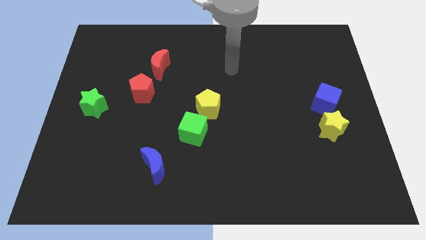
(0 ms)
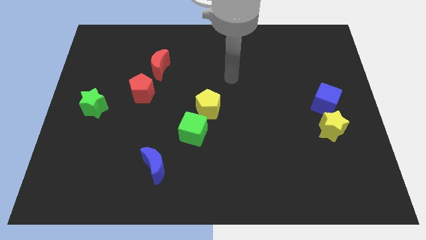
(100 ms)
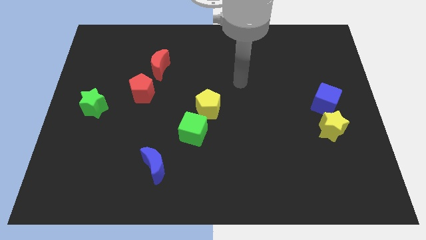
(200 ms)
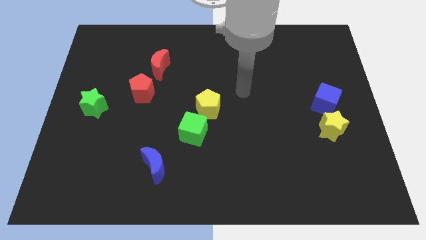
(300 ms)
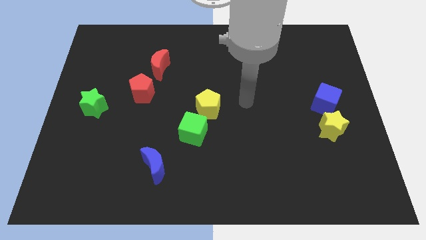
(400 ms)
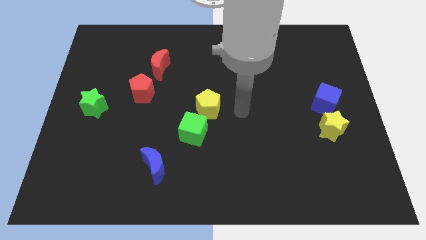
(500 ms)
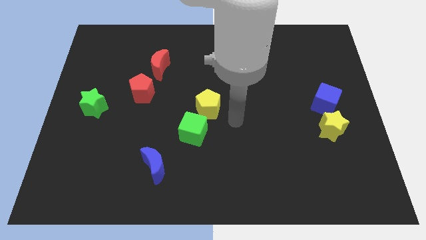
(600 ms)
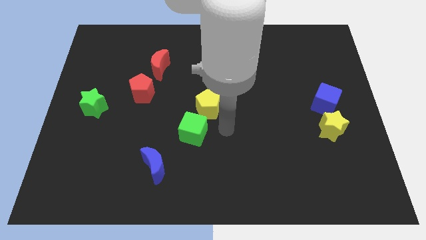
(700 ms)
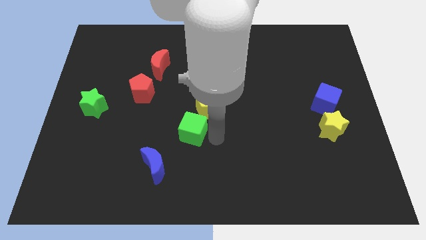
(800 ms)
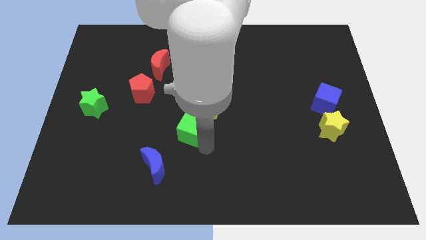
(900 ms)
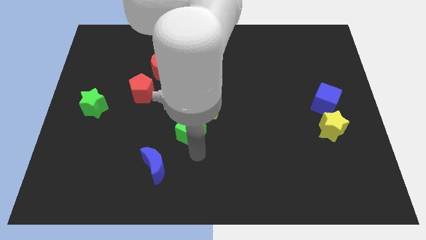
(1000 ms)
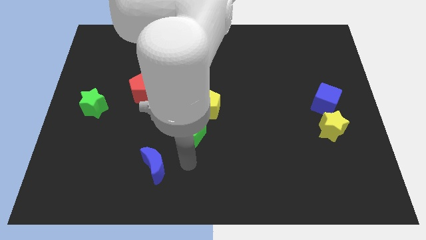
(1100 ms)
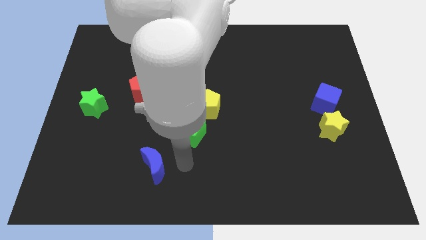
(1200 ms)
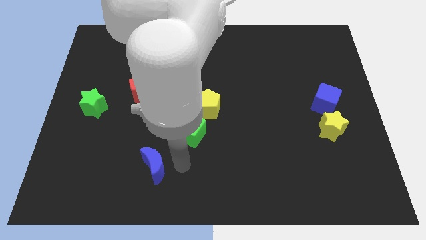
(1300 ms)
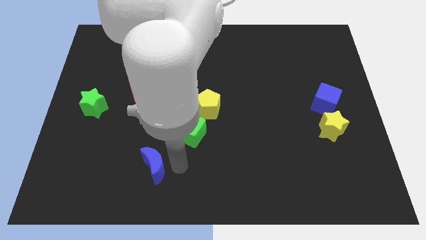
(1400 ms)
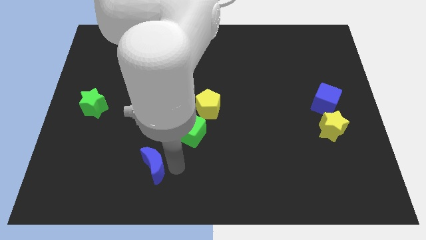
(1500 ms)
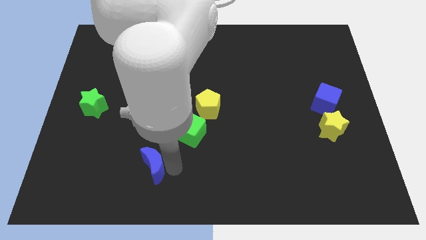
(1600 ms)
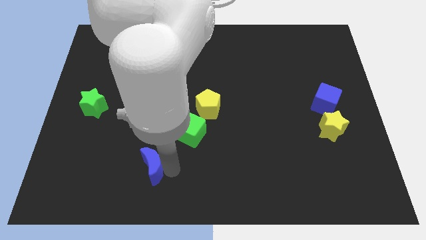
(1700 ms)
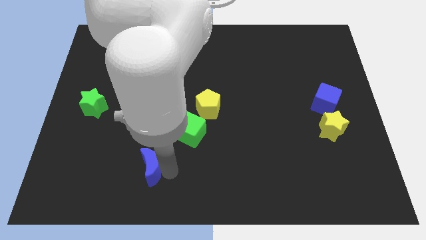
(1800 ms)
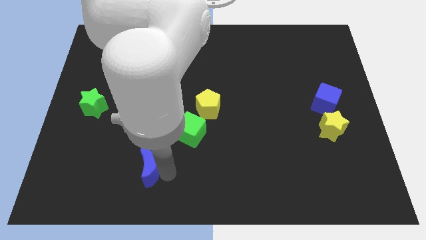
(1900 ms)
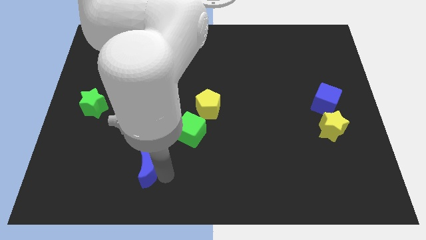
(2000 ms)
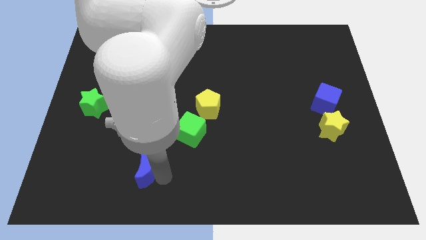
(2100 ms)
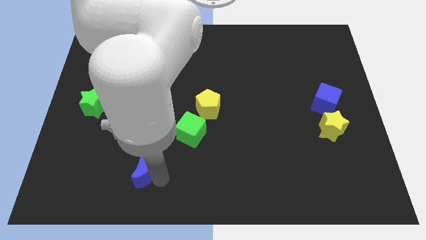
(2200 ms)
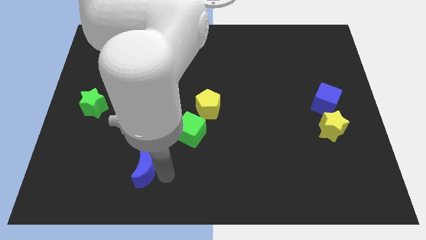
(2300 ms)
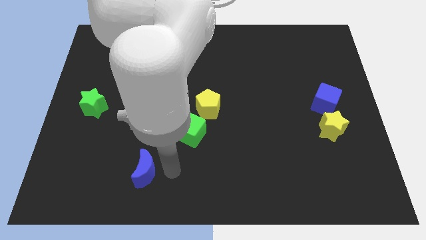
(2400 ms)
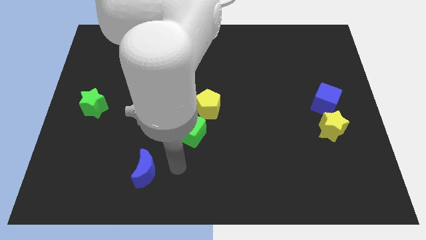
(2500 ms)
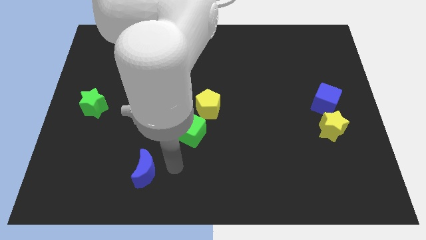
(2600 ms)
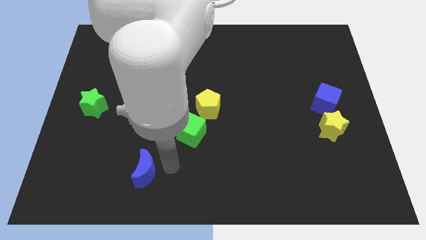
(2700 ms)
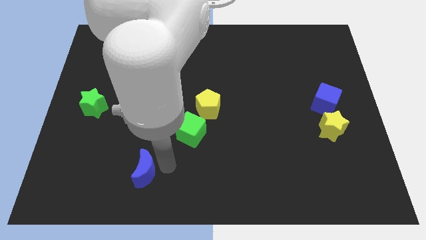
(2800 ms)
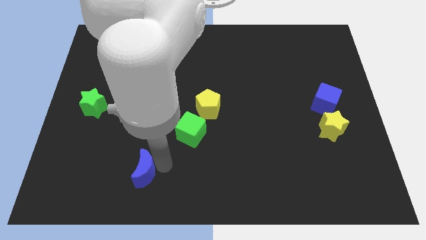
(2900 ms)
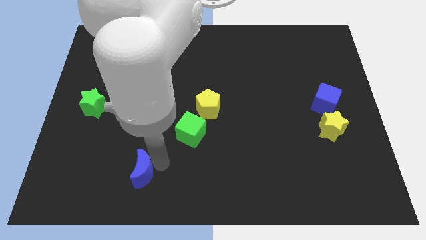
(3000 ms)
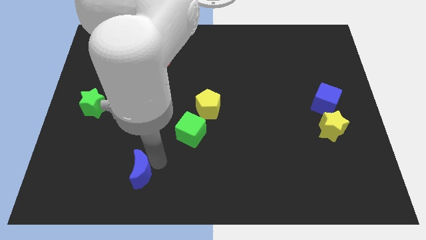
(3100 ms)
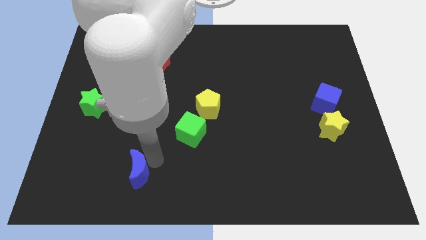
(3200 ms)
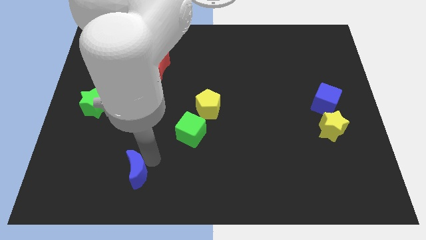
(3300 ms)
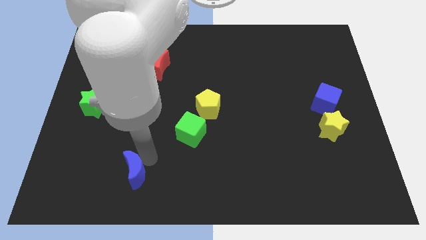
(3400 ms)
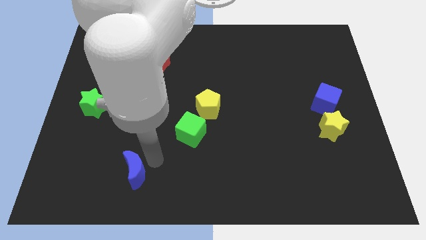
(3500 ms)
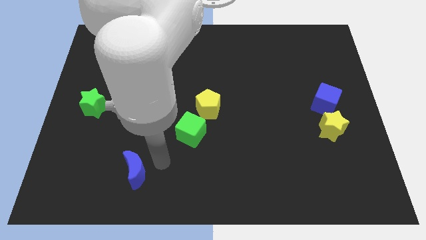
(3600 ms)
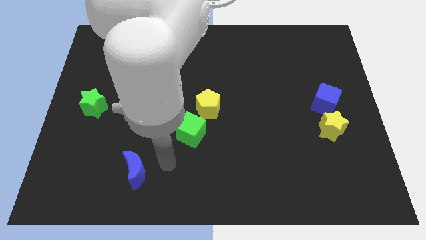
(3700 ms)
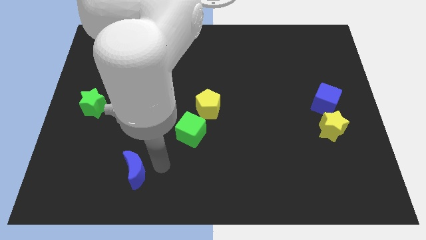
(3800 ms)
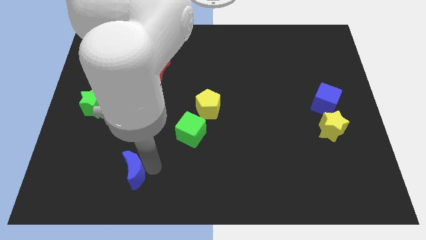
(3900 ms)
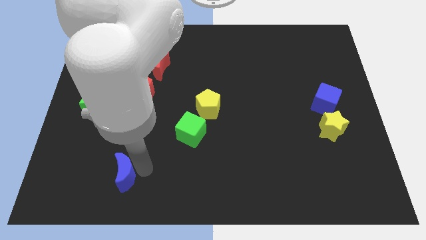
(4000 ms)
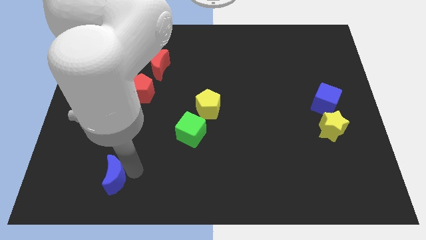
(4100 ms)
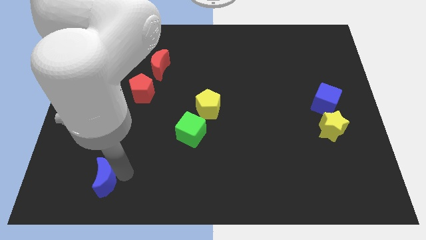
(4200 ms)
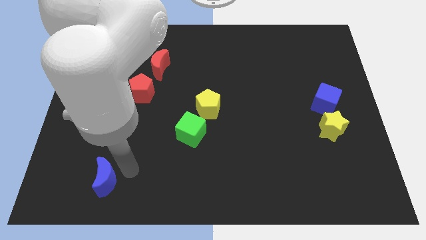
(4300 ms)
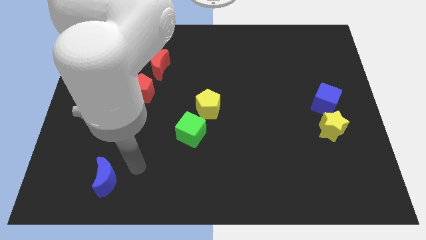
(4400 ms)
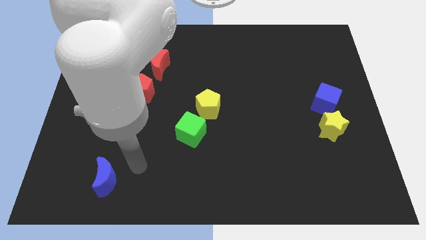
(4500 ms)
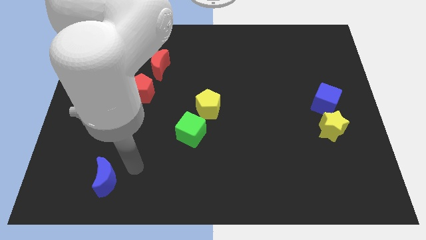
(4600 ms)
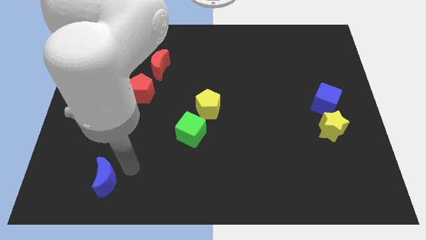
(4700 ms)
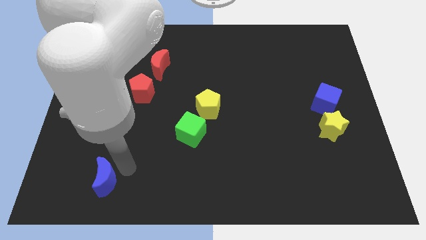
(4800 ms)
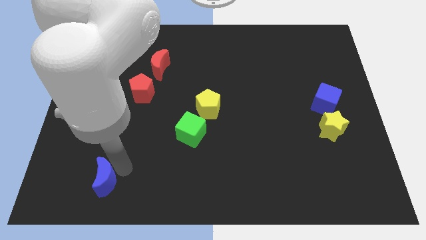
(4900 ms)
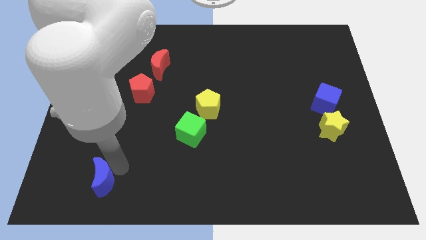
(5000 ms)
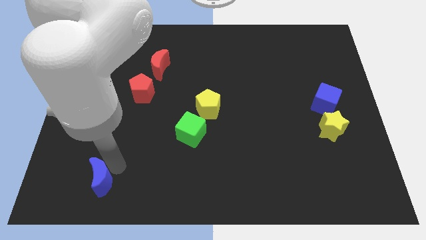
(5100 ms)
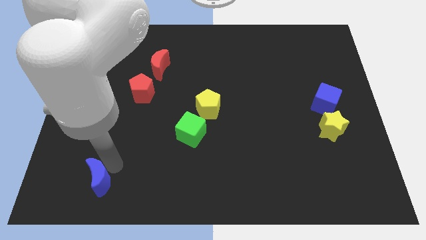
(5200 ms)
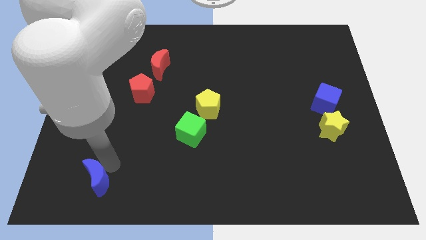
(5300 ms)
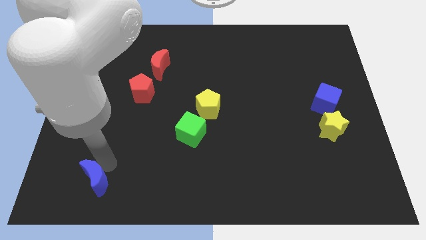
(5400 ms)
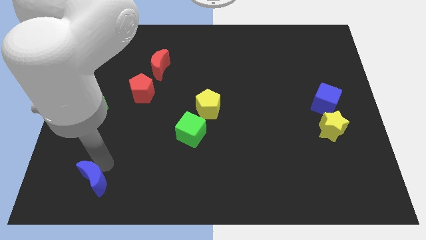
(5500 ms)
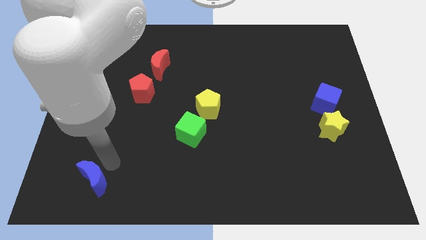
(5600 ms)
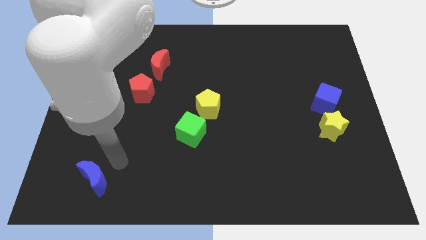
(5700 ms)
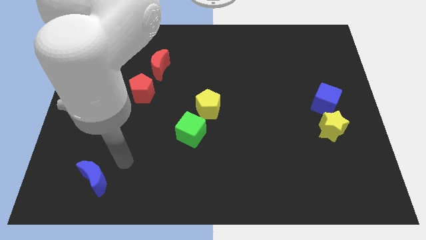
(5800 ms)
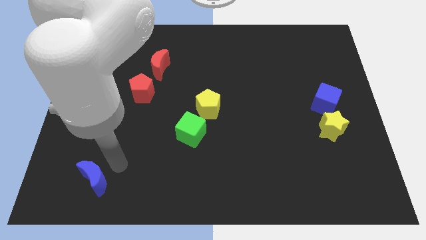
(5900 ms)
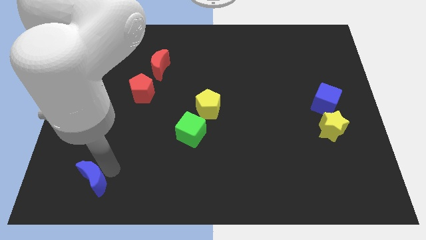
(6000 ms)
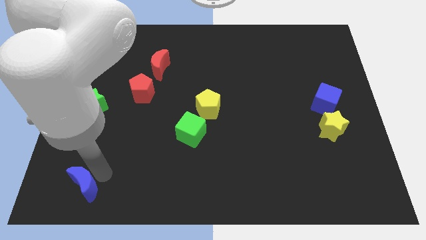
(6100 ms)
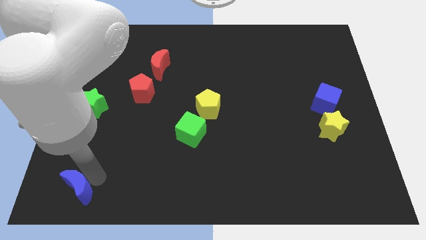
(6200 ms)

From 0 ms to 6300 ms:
move the blue moon to the bottom left of the board
